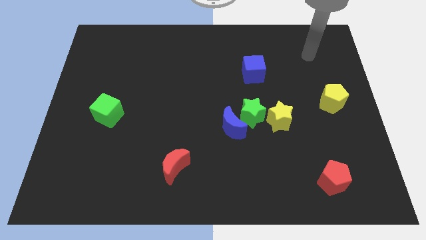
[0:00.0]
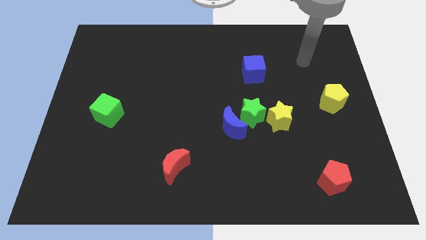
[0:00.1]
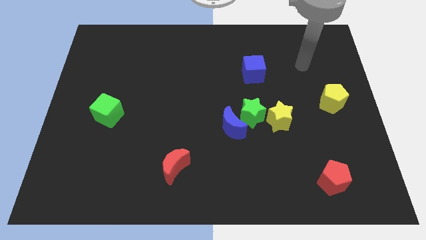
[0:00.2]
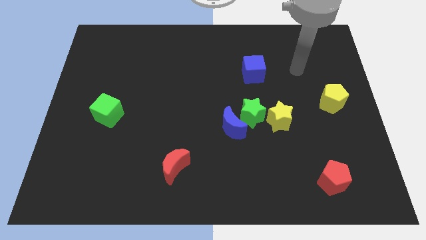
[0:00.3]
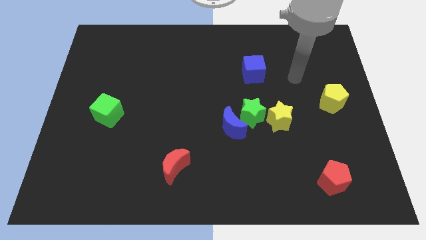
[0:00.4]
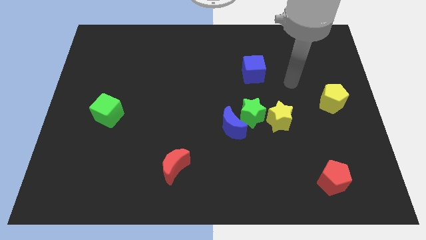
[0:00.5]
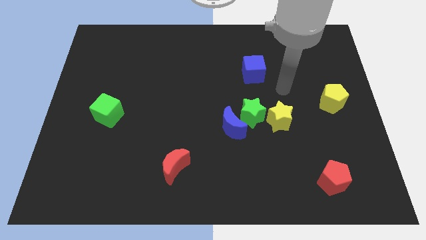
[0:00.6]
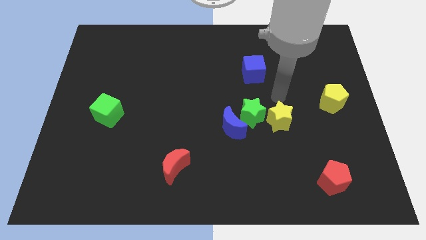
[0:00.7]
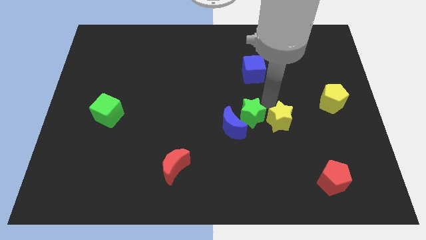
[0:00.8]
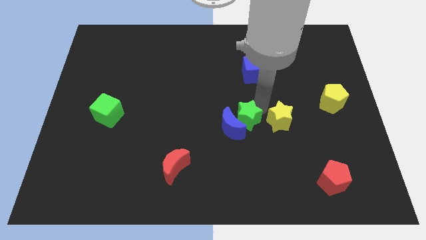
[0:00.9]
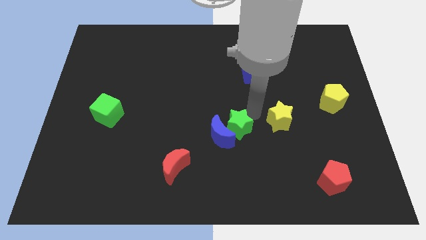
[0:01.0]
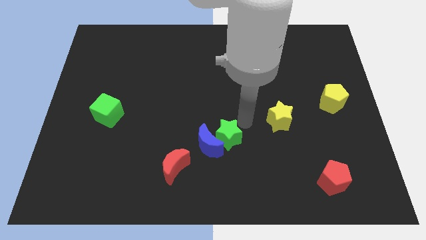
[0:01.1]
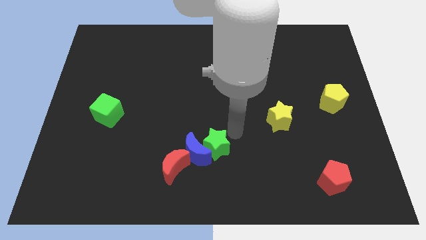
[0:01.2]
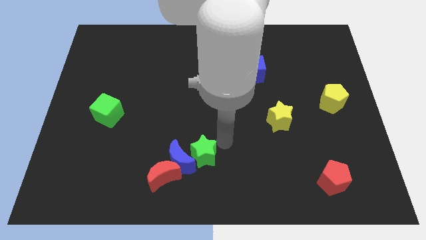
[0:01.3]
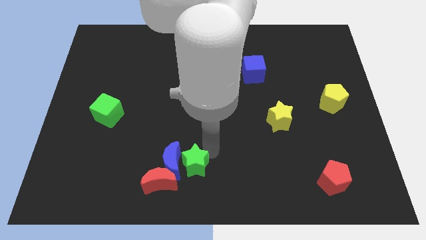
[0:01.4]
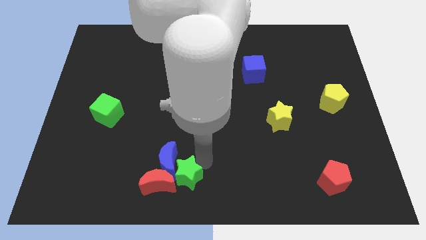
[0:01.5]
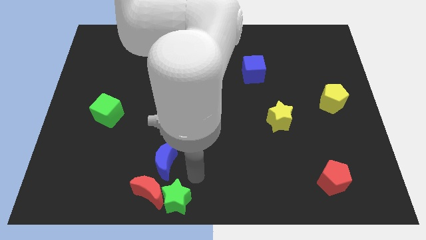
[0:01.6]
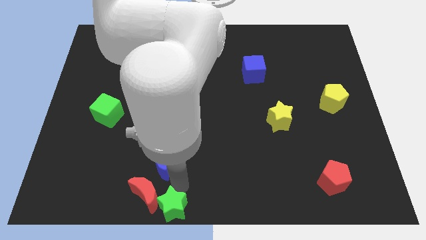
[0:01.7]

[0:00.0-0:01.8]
pull the blue moon apart from the green star

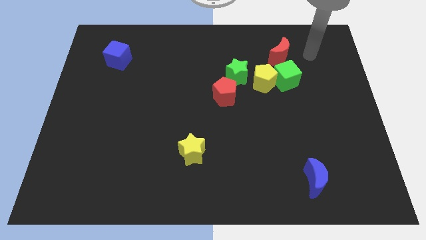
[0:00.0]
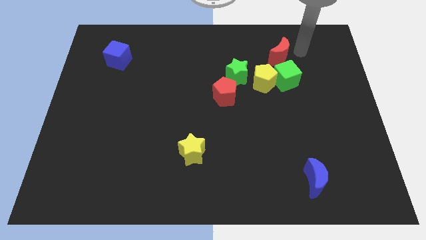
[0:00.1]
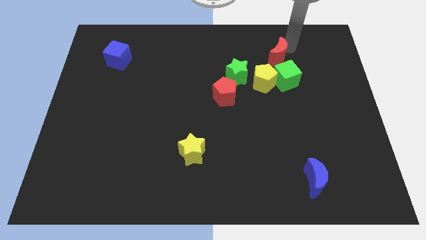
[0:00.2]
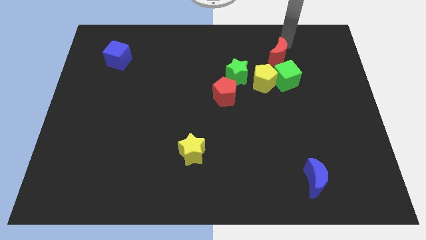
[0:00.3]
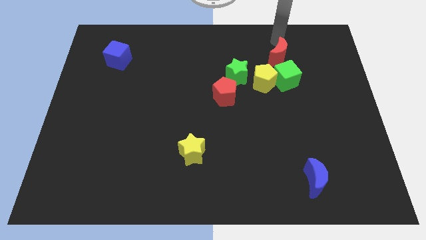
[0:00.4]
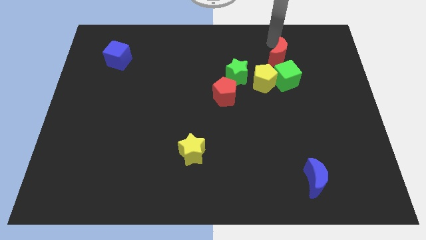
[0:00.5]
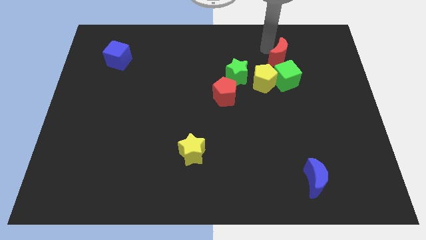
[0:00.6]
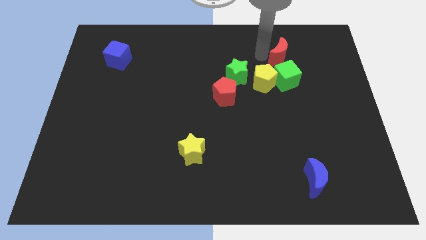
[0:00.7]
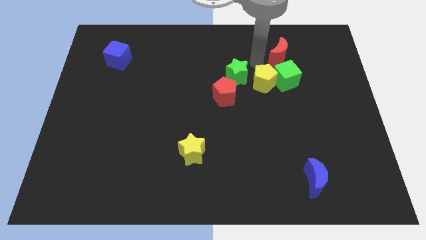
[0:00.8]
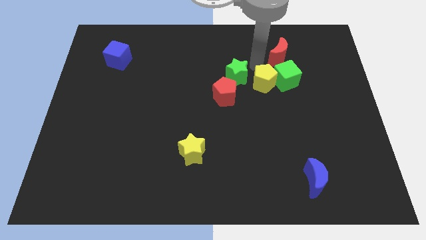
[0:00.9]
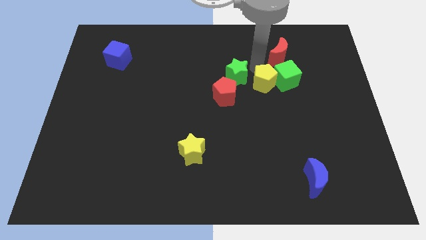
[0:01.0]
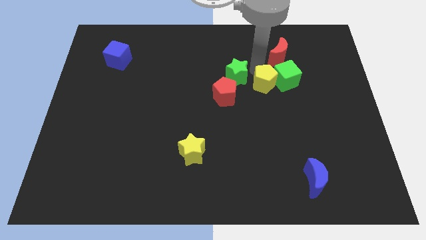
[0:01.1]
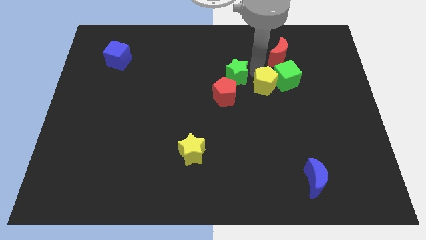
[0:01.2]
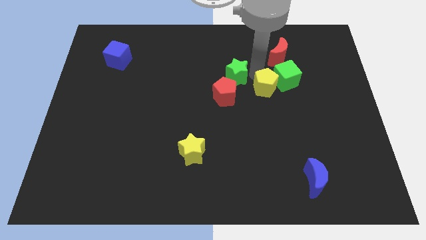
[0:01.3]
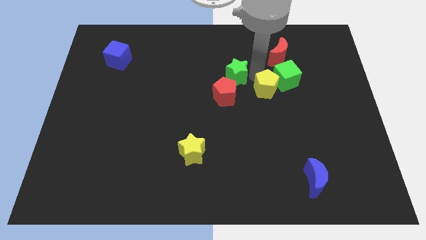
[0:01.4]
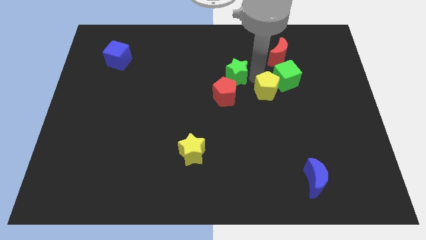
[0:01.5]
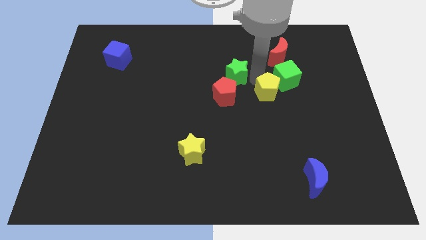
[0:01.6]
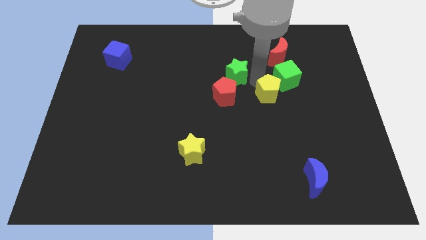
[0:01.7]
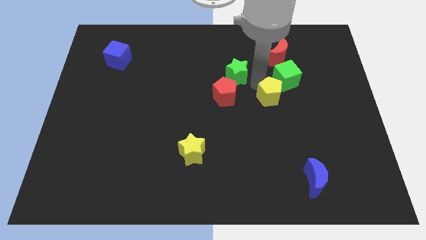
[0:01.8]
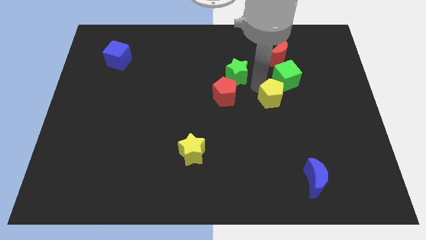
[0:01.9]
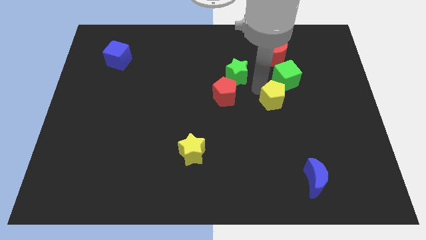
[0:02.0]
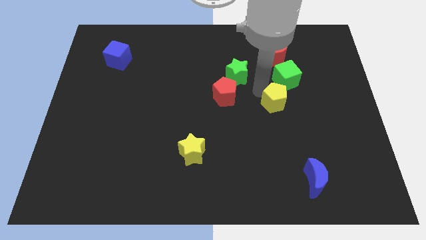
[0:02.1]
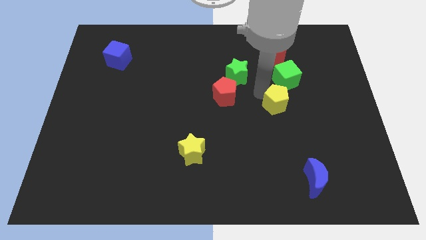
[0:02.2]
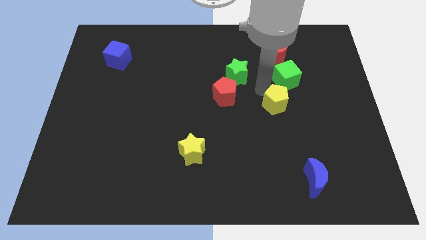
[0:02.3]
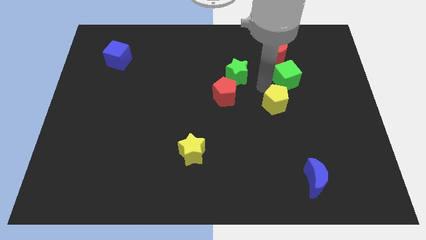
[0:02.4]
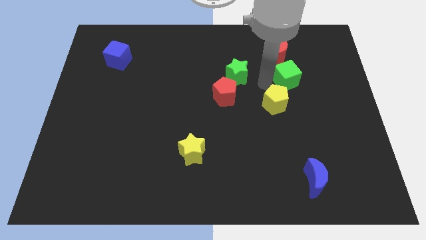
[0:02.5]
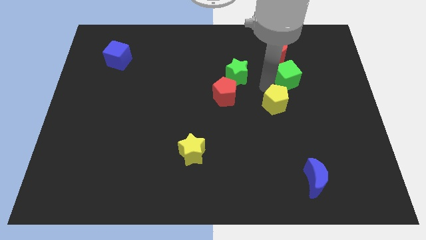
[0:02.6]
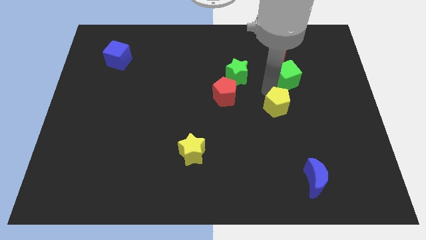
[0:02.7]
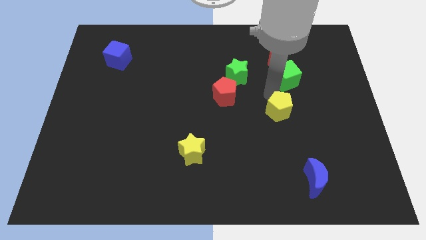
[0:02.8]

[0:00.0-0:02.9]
separate the yellow pentagon from the green cube and green star

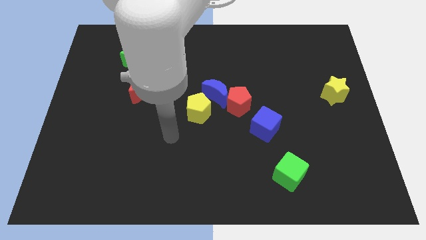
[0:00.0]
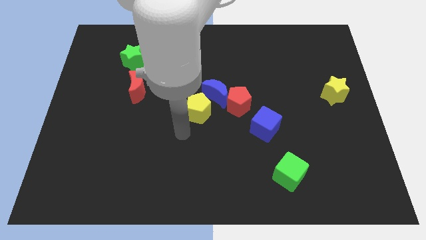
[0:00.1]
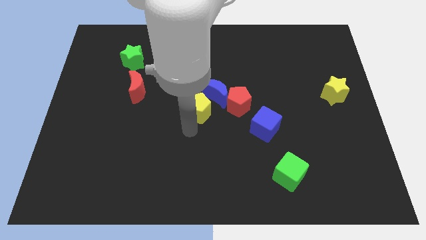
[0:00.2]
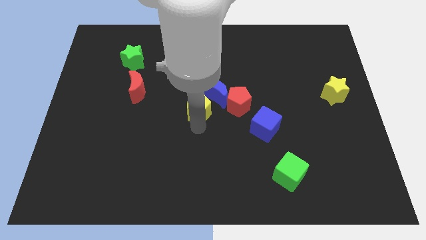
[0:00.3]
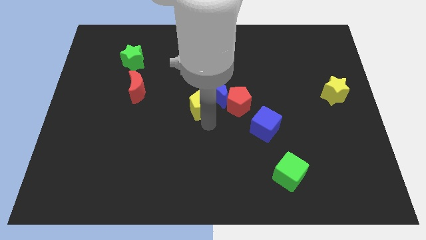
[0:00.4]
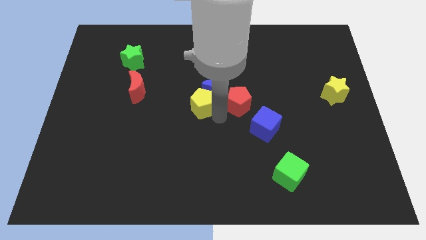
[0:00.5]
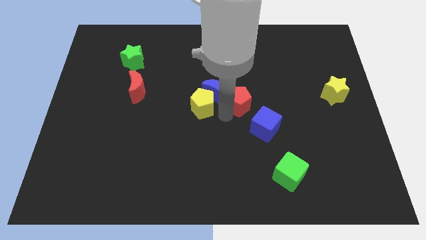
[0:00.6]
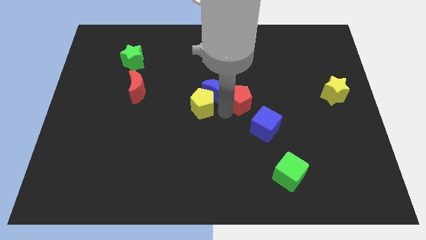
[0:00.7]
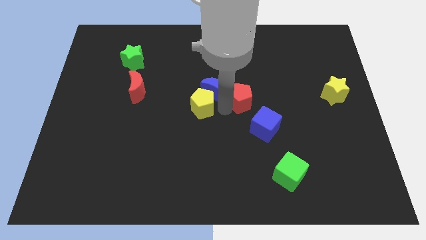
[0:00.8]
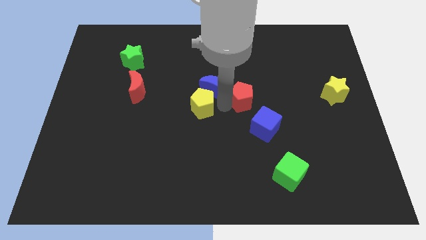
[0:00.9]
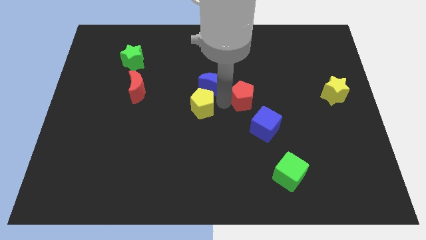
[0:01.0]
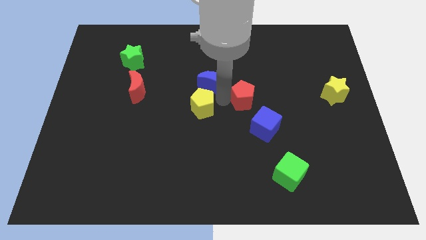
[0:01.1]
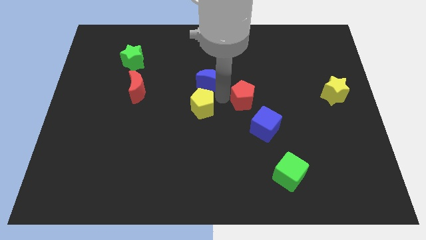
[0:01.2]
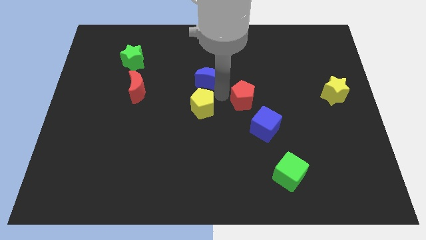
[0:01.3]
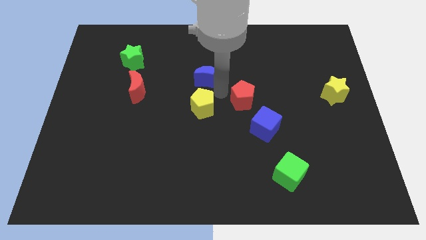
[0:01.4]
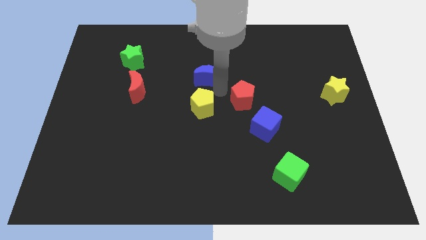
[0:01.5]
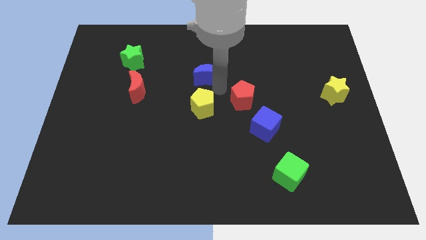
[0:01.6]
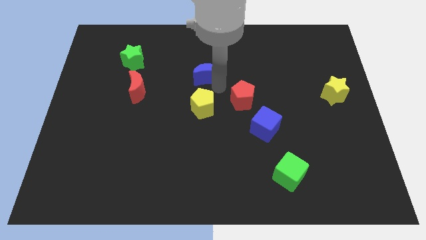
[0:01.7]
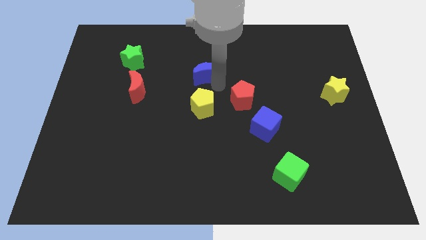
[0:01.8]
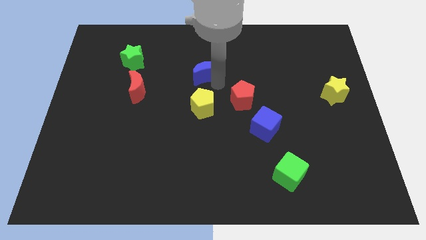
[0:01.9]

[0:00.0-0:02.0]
move the blue moon away from the red pentagon and yellow pentagon

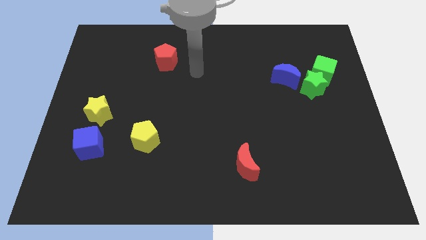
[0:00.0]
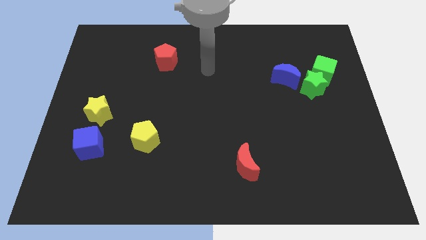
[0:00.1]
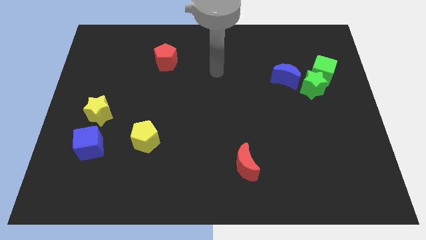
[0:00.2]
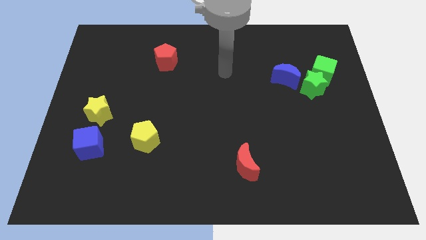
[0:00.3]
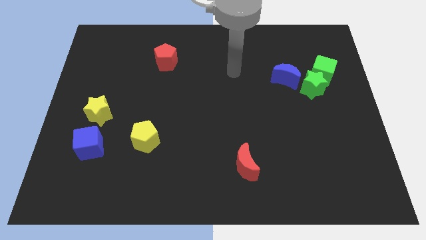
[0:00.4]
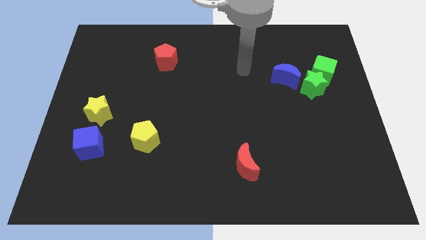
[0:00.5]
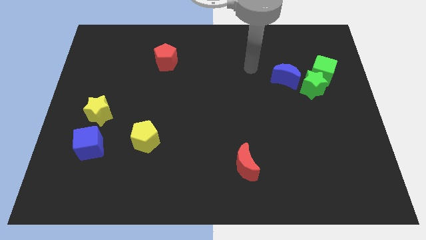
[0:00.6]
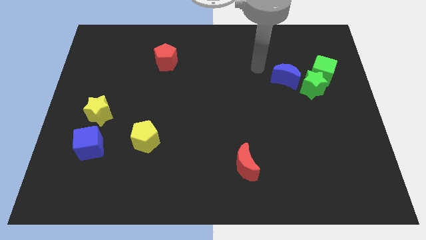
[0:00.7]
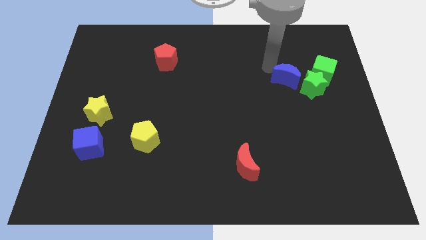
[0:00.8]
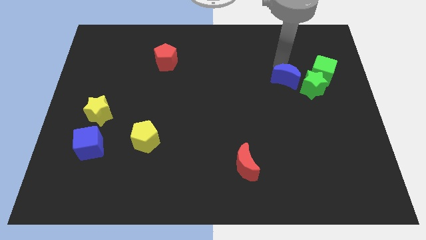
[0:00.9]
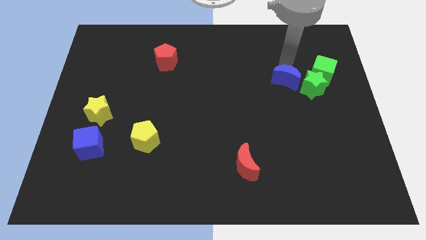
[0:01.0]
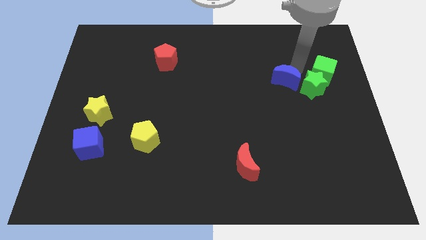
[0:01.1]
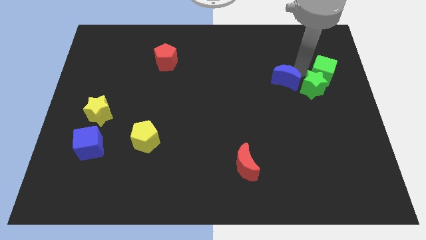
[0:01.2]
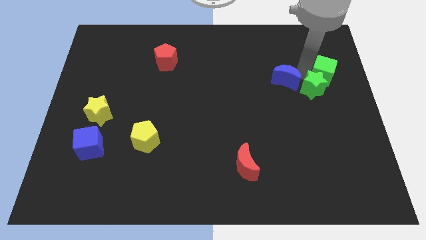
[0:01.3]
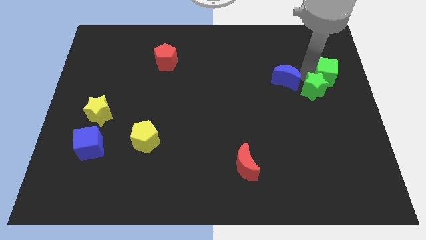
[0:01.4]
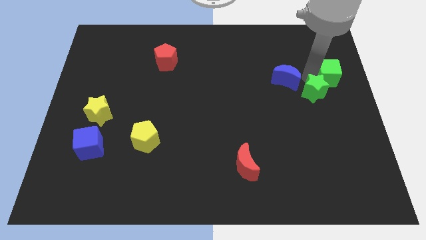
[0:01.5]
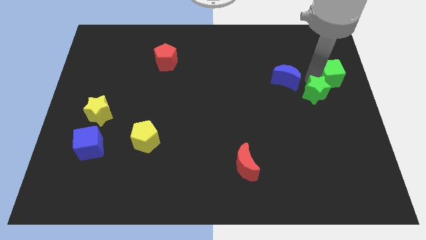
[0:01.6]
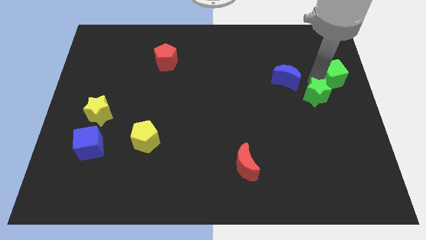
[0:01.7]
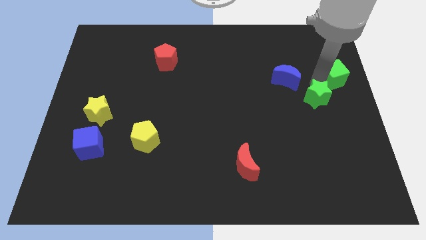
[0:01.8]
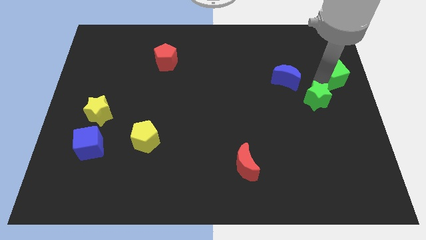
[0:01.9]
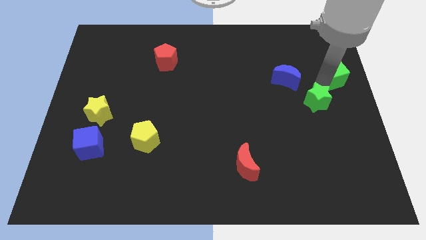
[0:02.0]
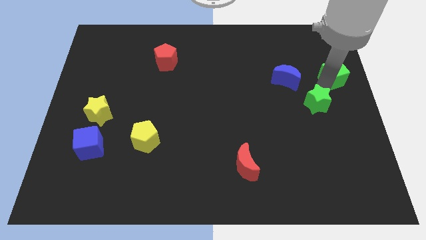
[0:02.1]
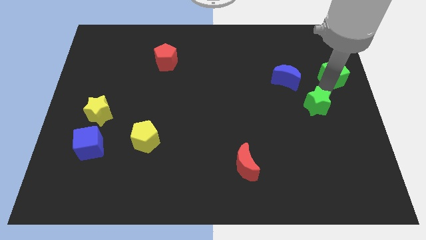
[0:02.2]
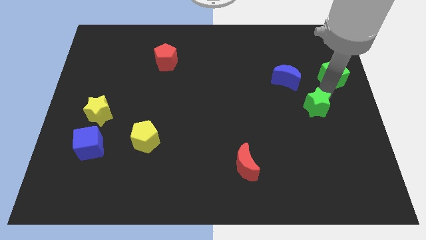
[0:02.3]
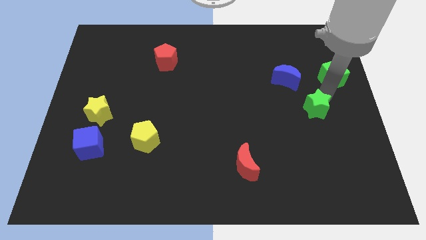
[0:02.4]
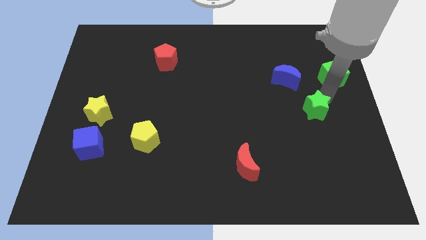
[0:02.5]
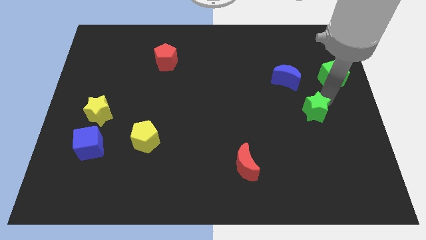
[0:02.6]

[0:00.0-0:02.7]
separate the green star from the green cube and blue moon
